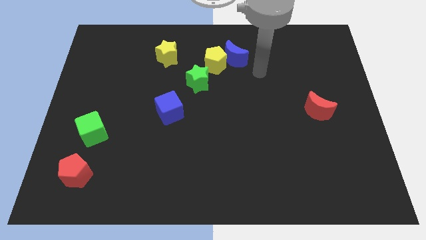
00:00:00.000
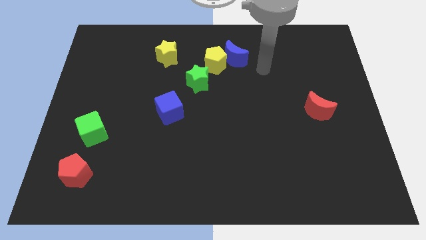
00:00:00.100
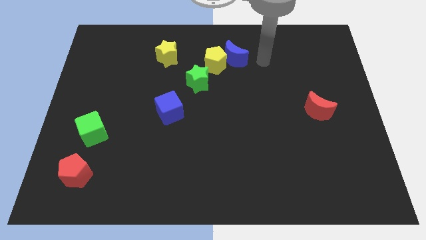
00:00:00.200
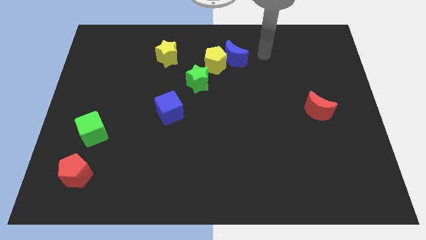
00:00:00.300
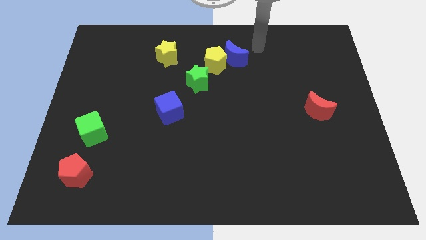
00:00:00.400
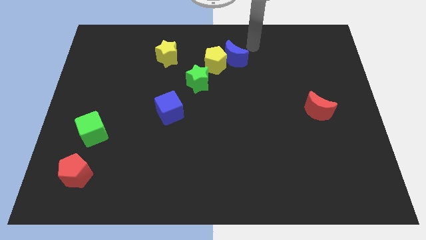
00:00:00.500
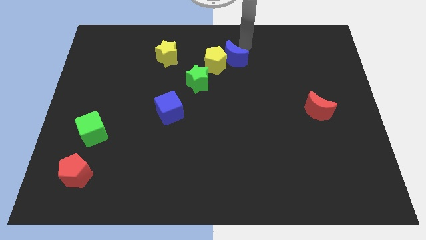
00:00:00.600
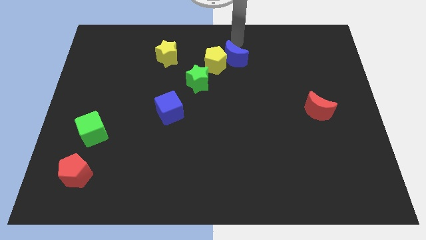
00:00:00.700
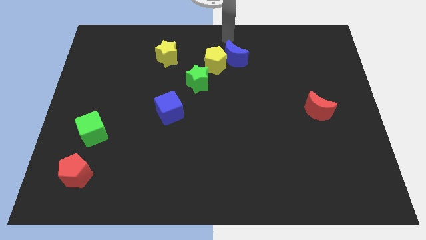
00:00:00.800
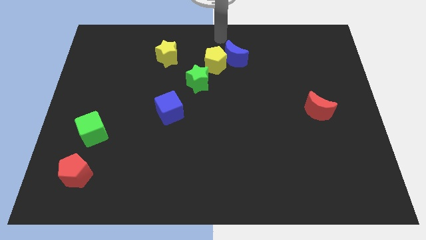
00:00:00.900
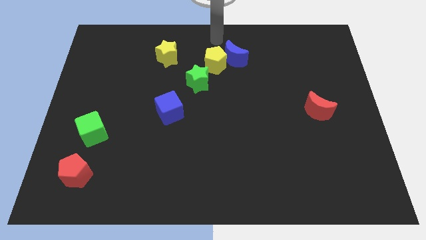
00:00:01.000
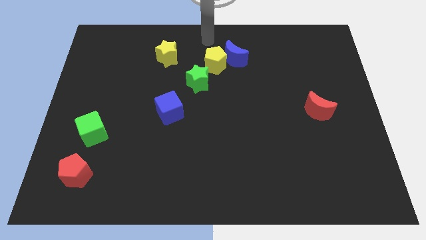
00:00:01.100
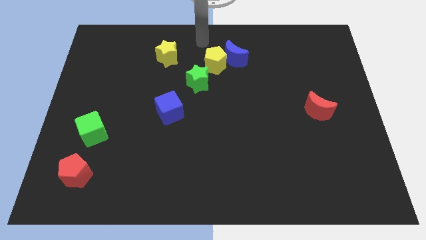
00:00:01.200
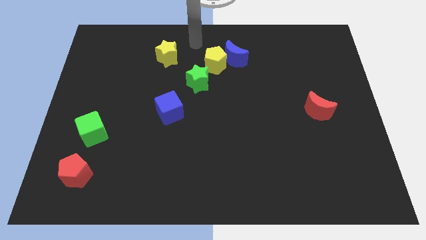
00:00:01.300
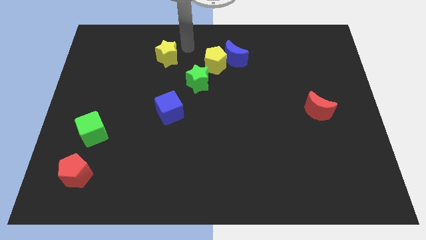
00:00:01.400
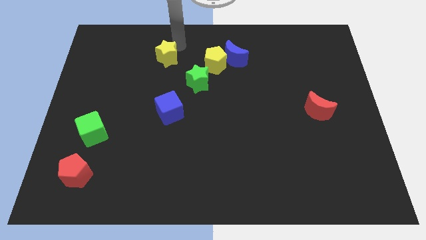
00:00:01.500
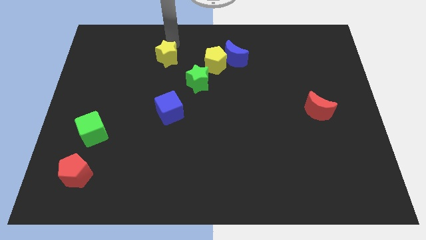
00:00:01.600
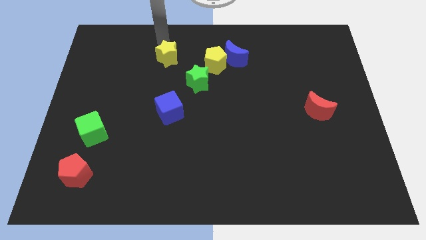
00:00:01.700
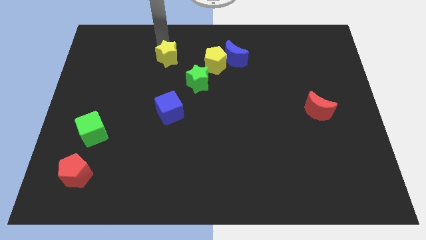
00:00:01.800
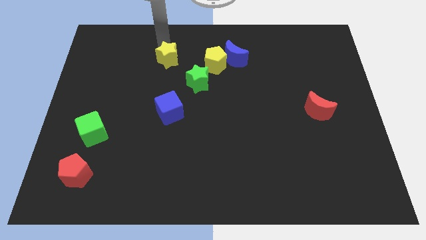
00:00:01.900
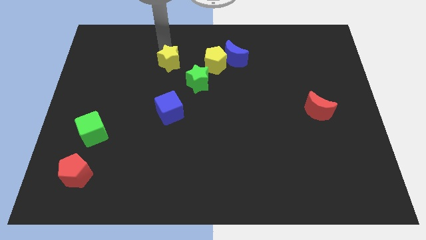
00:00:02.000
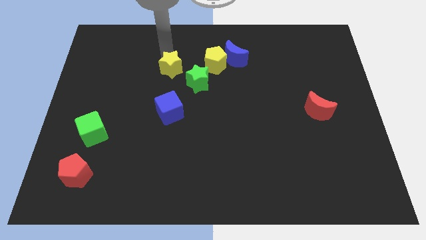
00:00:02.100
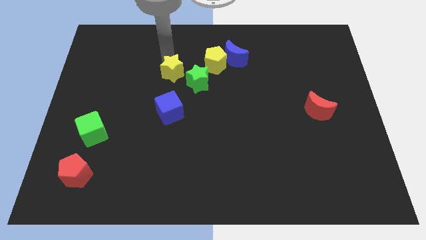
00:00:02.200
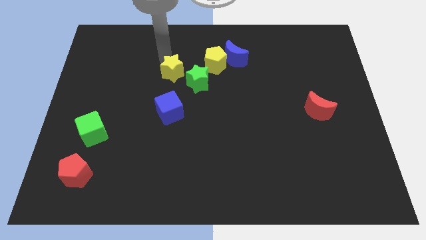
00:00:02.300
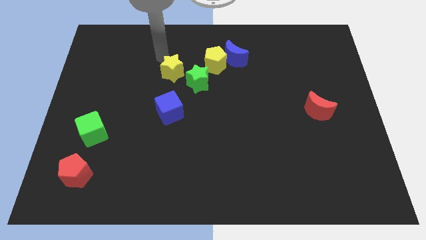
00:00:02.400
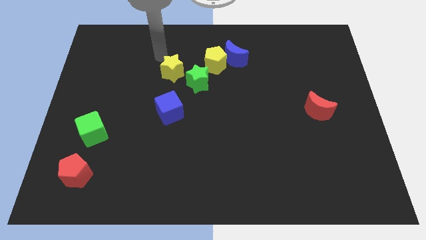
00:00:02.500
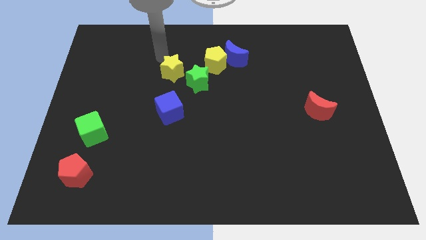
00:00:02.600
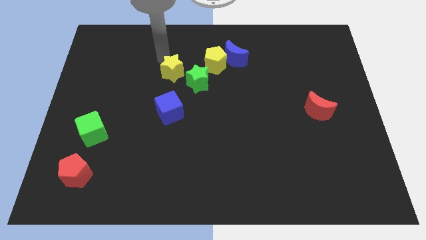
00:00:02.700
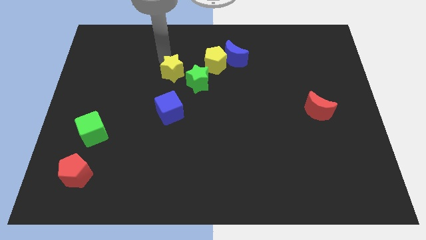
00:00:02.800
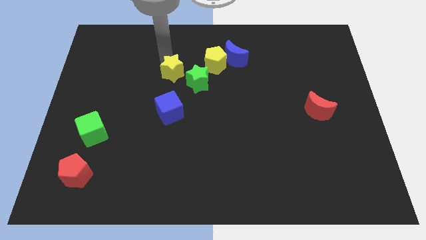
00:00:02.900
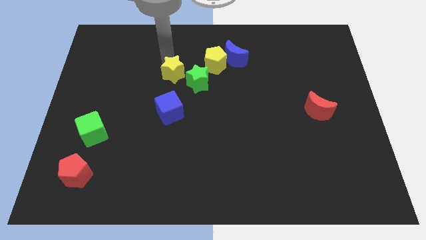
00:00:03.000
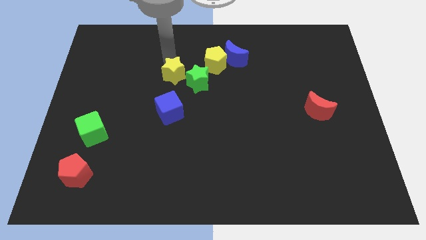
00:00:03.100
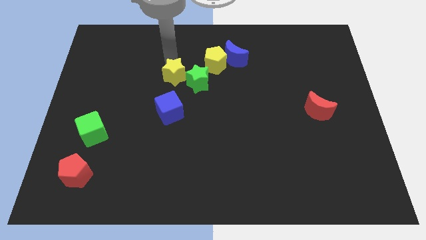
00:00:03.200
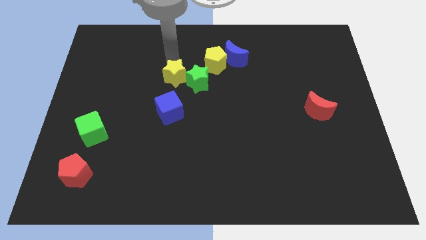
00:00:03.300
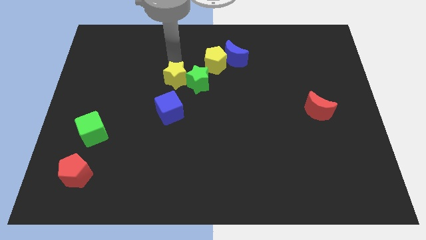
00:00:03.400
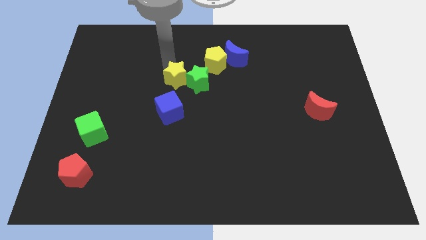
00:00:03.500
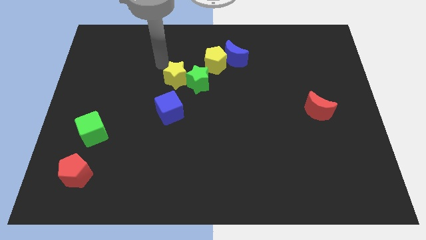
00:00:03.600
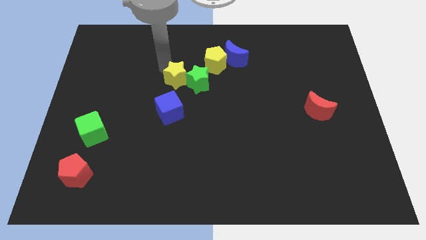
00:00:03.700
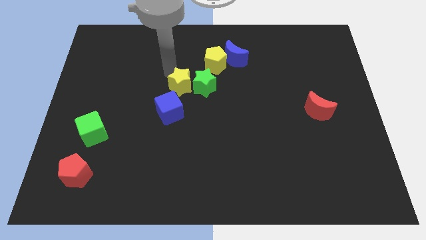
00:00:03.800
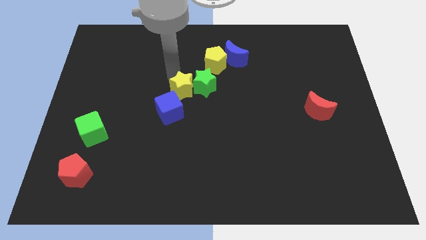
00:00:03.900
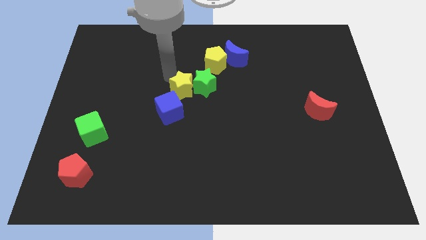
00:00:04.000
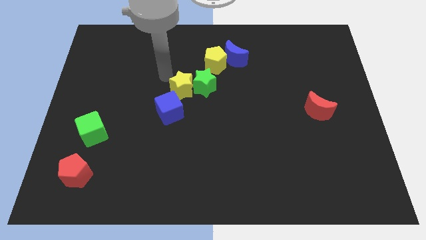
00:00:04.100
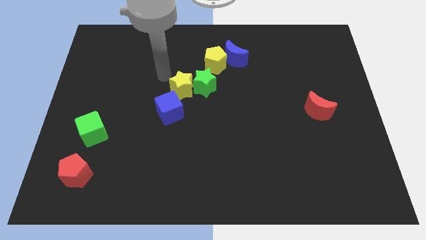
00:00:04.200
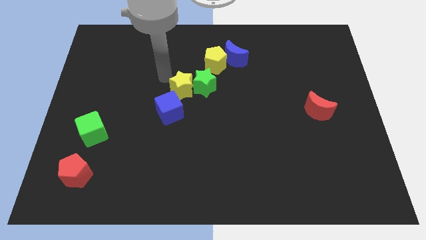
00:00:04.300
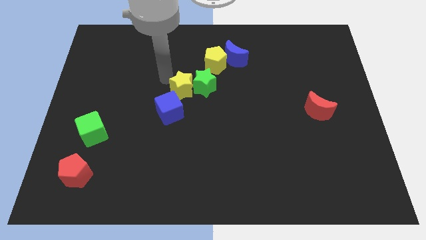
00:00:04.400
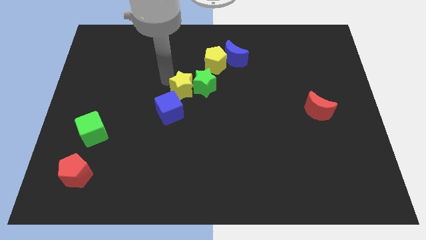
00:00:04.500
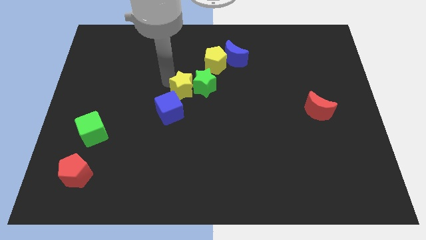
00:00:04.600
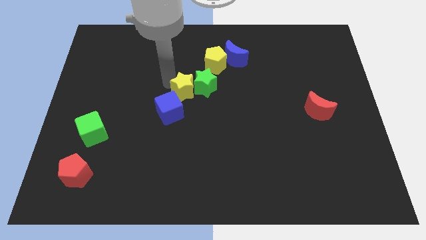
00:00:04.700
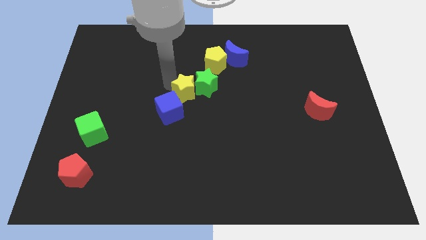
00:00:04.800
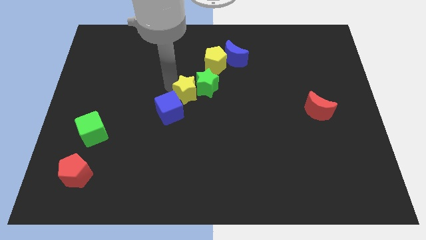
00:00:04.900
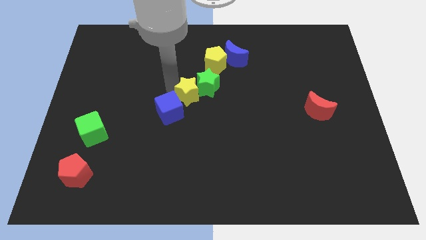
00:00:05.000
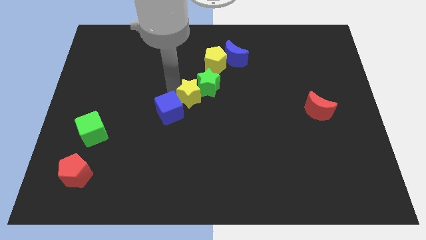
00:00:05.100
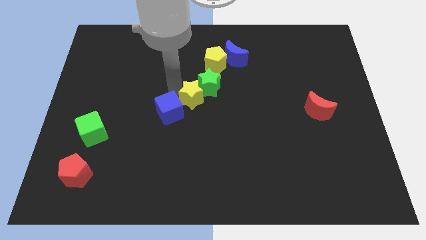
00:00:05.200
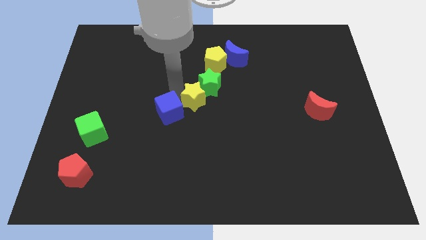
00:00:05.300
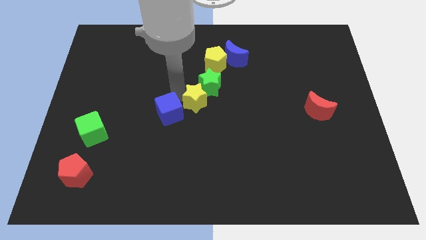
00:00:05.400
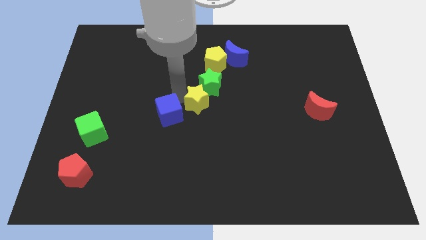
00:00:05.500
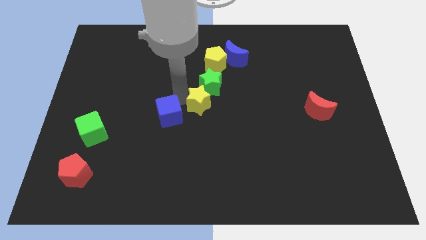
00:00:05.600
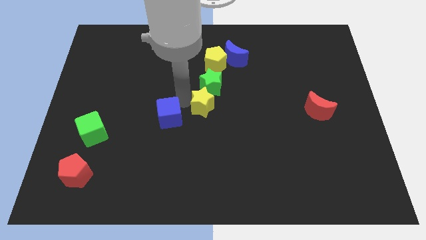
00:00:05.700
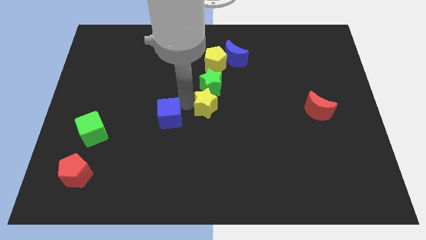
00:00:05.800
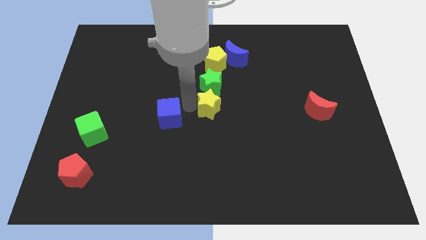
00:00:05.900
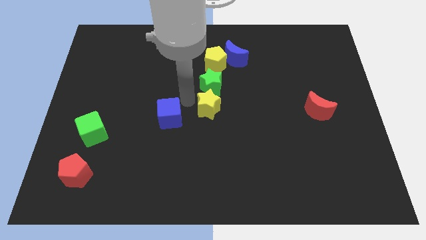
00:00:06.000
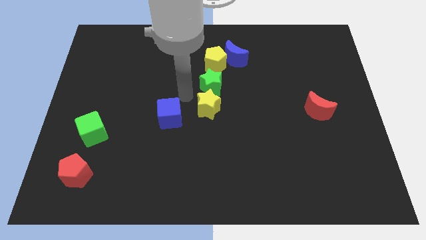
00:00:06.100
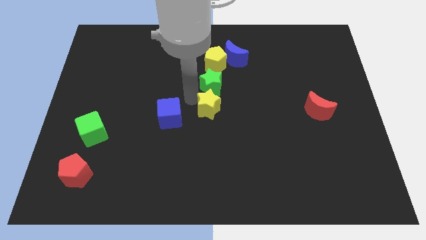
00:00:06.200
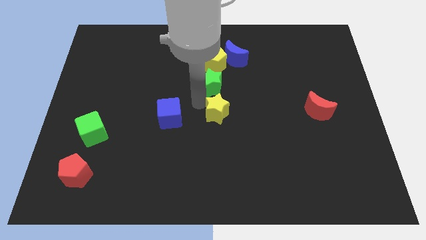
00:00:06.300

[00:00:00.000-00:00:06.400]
move the yellow star down and then to the right

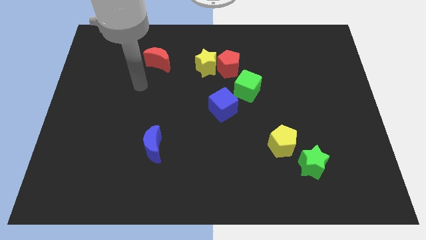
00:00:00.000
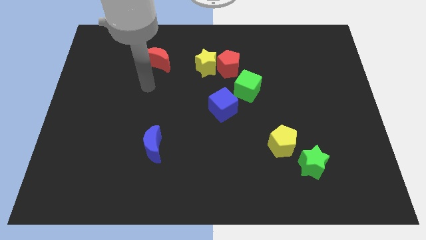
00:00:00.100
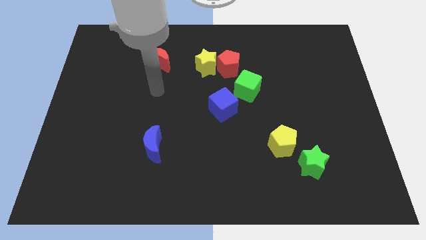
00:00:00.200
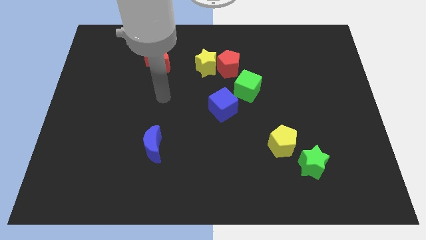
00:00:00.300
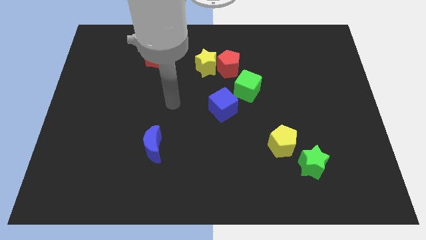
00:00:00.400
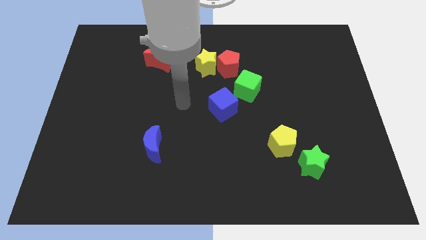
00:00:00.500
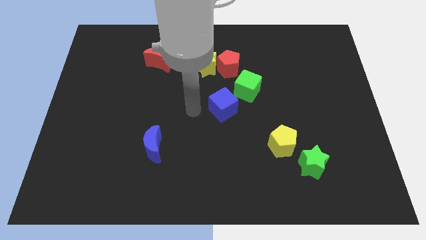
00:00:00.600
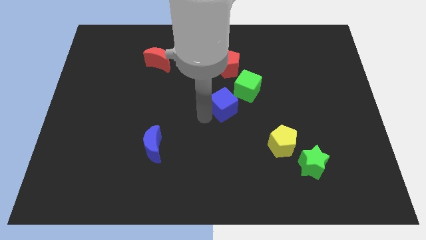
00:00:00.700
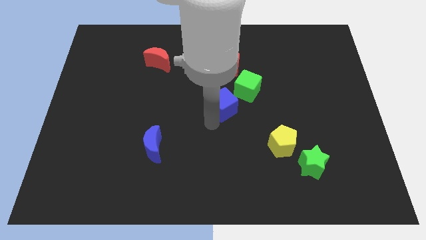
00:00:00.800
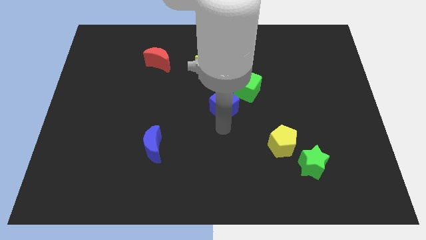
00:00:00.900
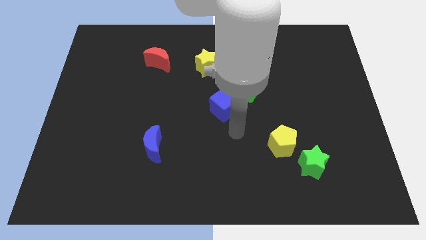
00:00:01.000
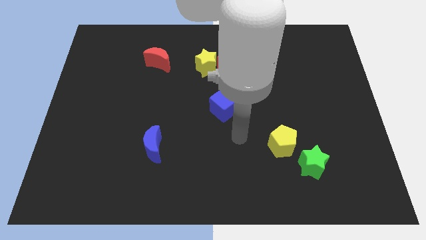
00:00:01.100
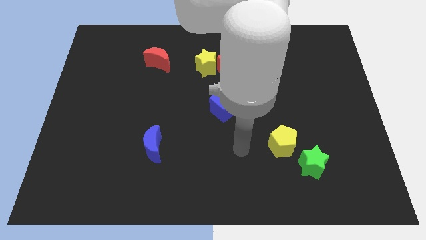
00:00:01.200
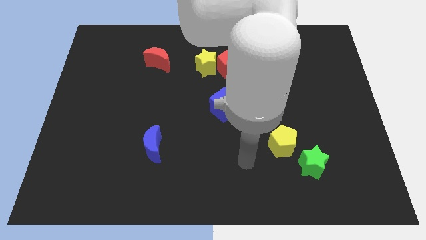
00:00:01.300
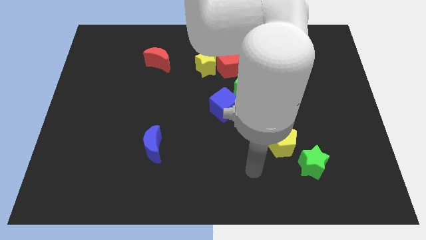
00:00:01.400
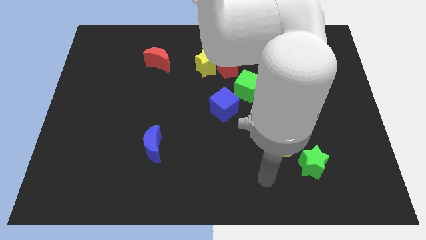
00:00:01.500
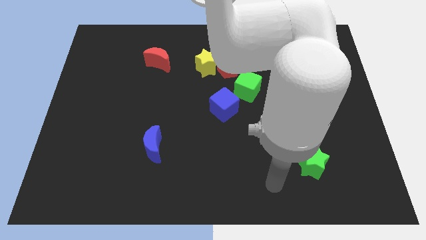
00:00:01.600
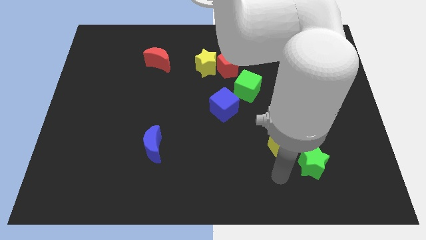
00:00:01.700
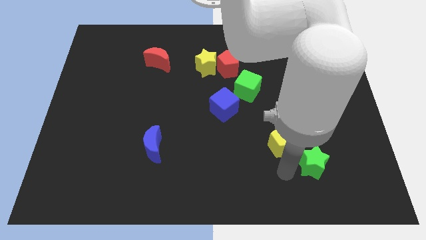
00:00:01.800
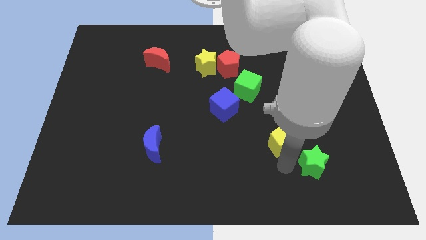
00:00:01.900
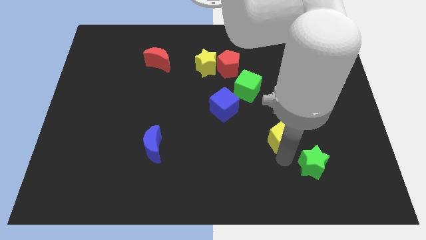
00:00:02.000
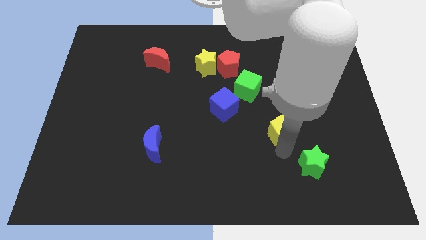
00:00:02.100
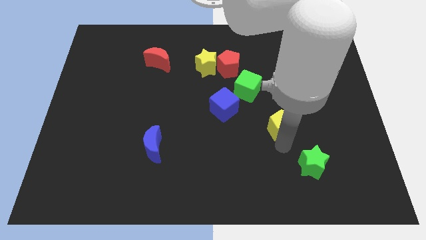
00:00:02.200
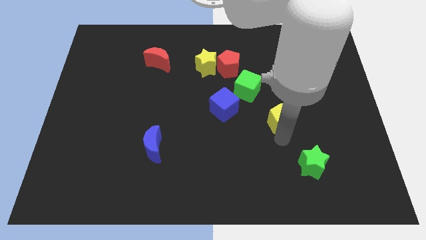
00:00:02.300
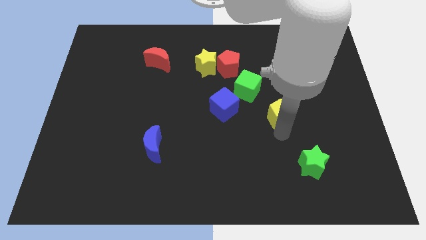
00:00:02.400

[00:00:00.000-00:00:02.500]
slightly slide the yellow pentagon up
